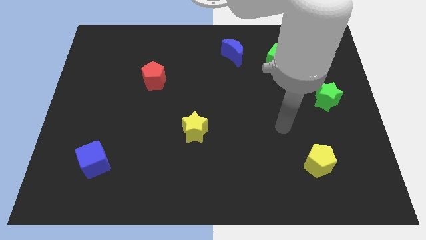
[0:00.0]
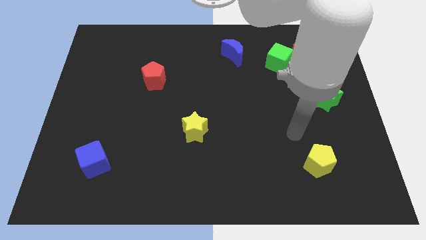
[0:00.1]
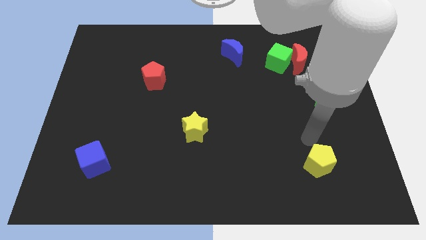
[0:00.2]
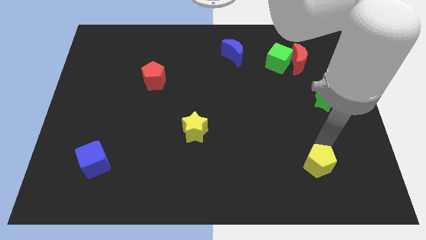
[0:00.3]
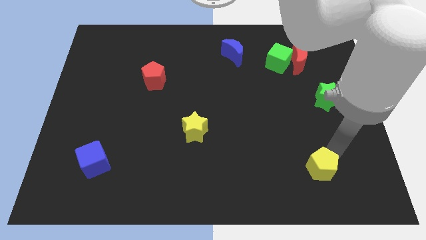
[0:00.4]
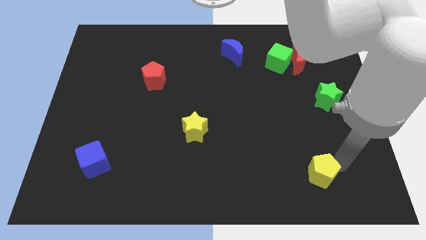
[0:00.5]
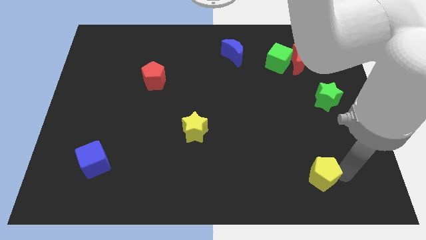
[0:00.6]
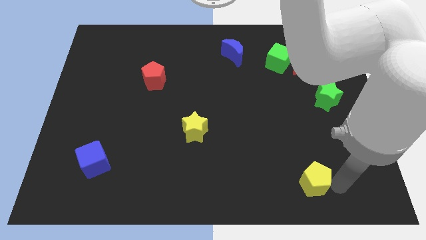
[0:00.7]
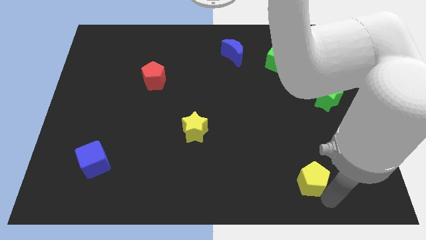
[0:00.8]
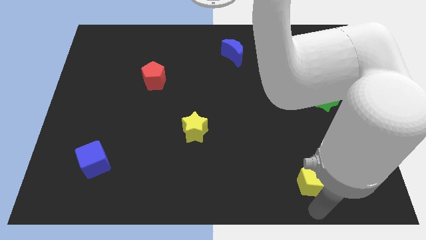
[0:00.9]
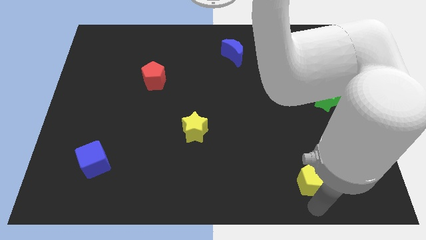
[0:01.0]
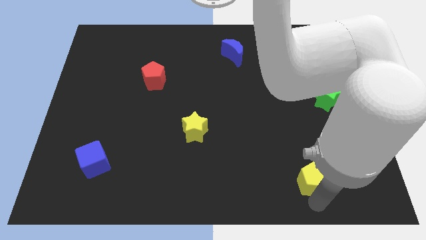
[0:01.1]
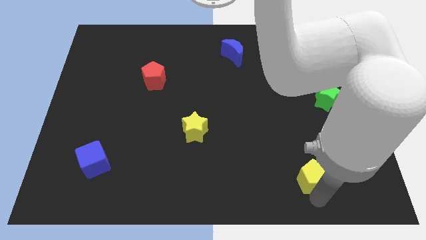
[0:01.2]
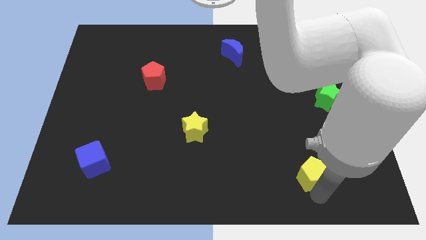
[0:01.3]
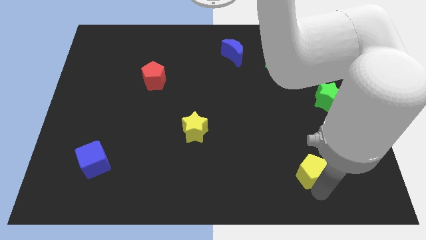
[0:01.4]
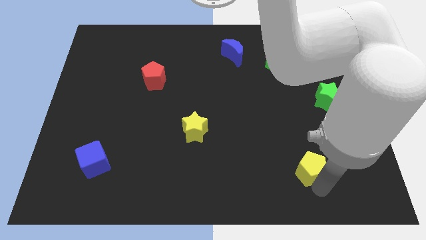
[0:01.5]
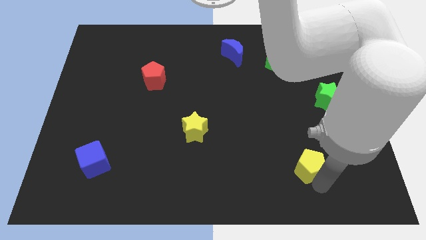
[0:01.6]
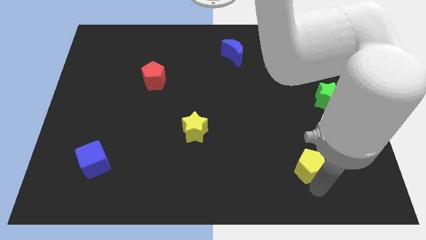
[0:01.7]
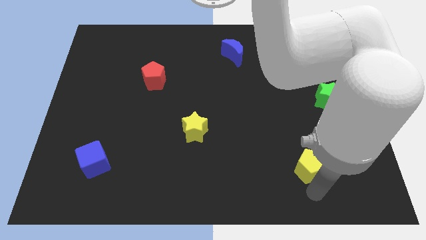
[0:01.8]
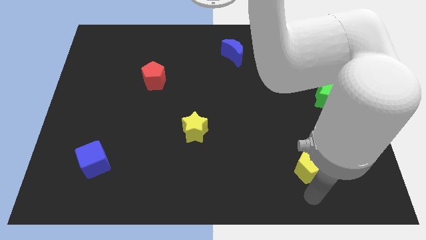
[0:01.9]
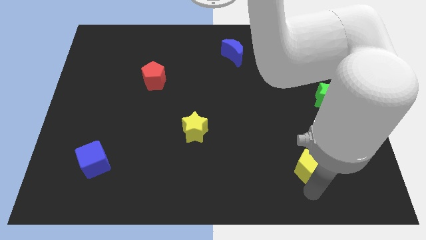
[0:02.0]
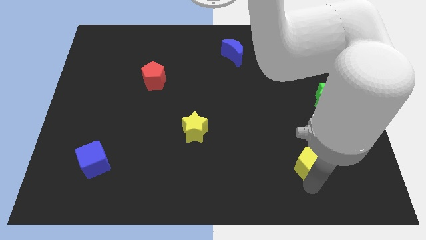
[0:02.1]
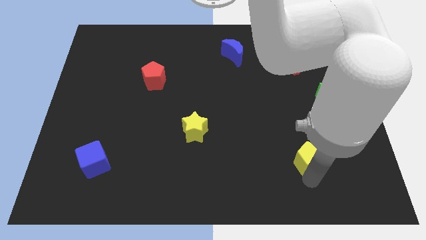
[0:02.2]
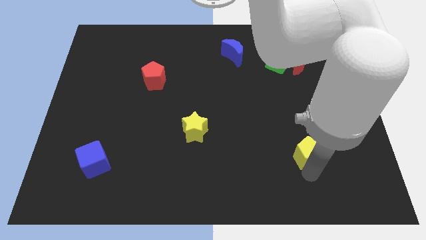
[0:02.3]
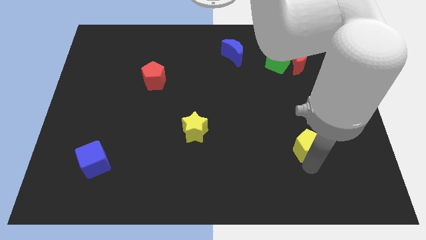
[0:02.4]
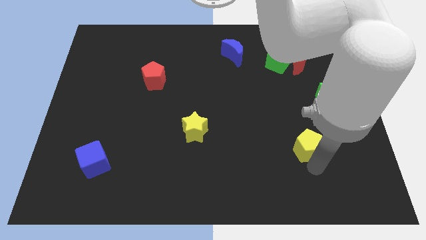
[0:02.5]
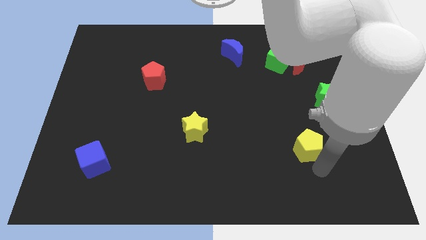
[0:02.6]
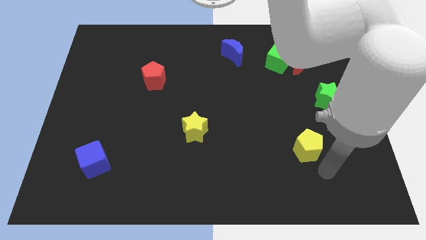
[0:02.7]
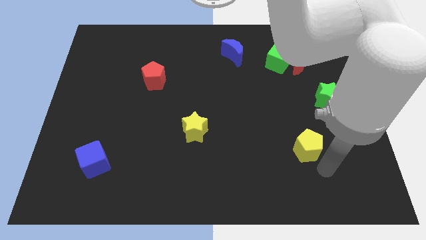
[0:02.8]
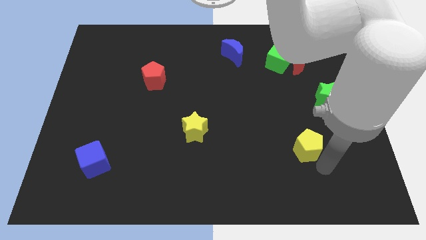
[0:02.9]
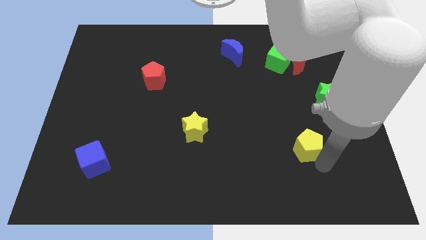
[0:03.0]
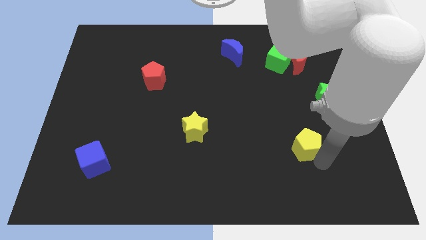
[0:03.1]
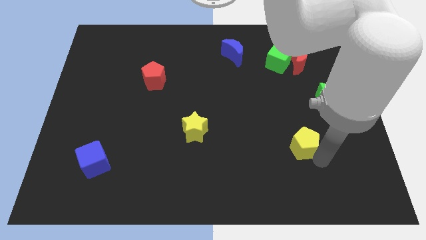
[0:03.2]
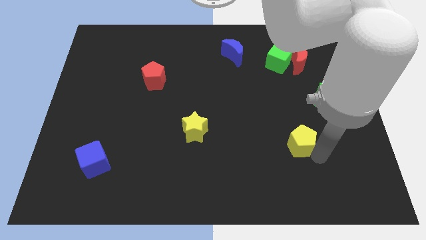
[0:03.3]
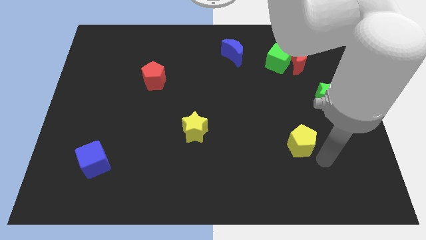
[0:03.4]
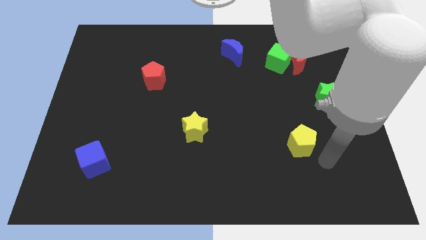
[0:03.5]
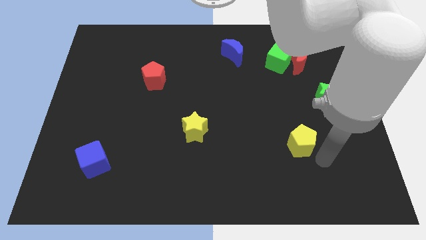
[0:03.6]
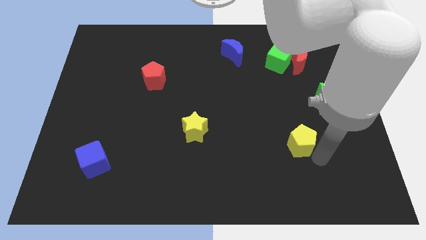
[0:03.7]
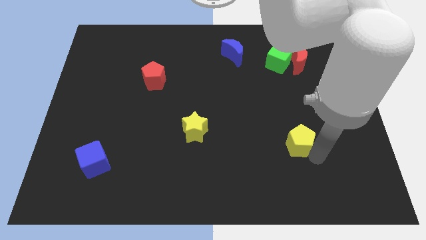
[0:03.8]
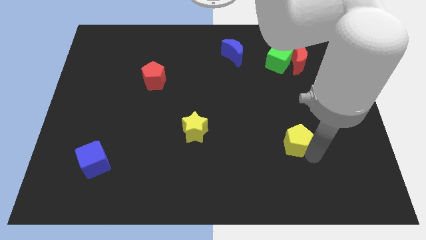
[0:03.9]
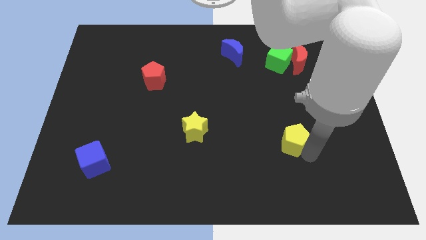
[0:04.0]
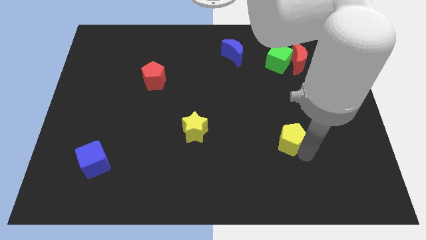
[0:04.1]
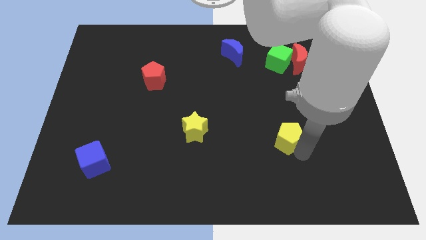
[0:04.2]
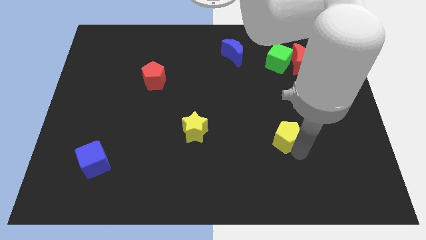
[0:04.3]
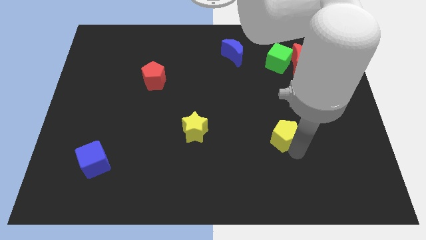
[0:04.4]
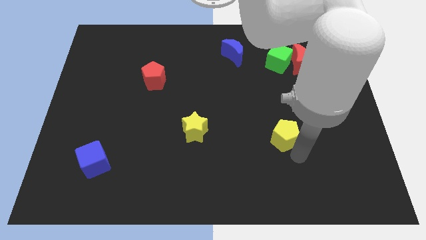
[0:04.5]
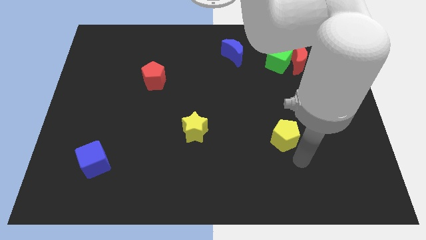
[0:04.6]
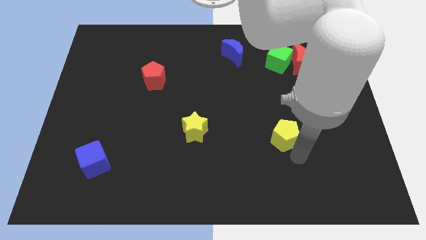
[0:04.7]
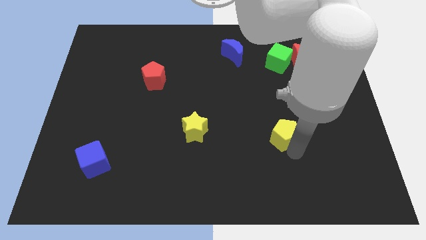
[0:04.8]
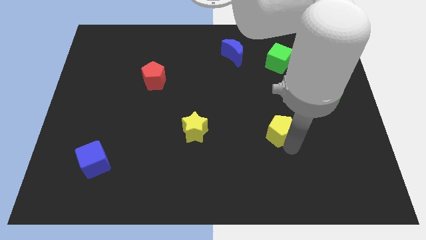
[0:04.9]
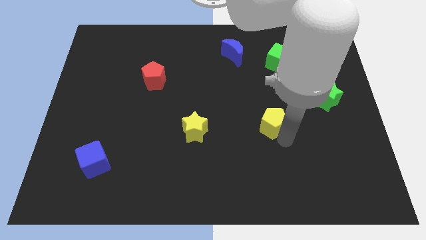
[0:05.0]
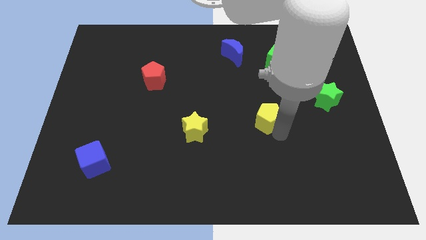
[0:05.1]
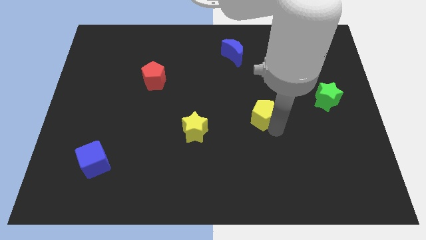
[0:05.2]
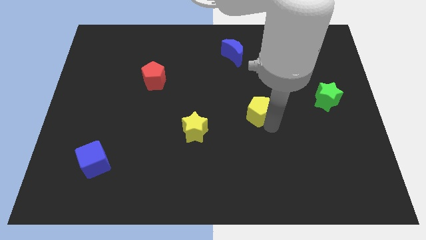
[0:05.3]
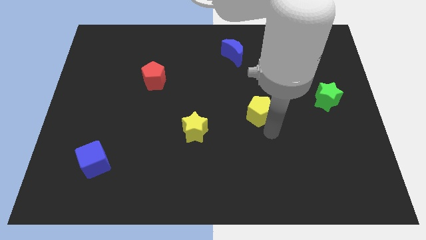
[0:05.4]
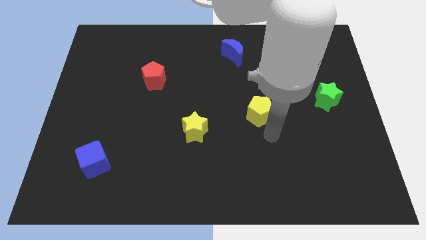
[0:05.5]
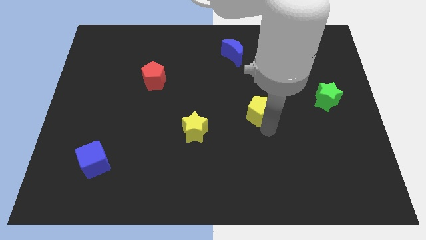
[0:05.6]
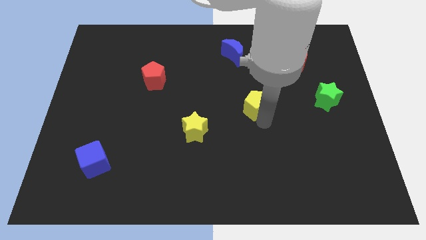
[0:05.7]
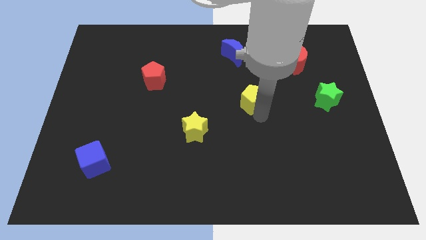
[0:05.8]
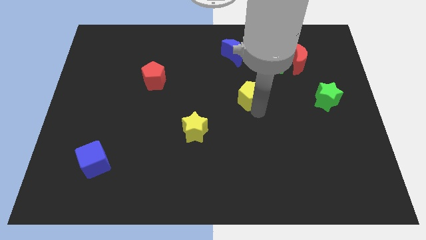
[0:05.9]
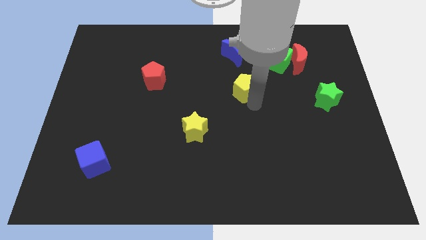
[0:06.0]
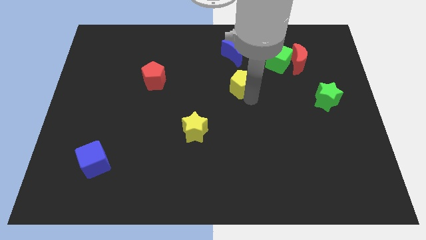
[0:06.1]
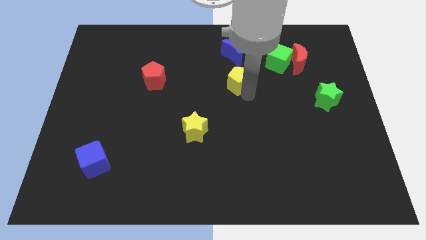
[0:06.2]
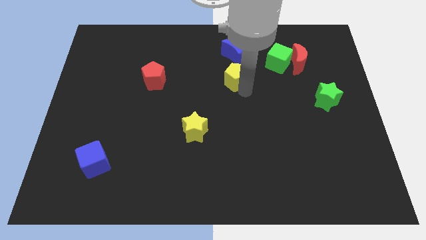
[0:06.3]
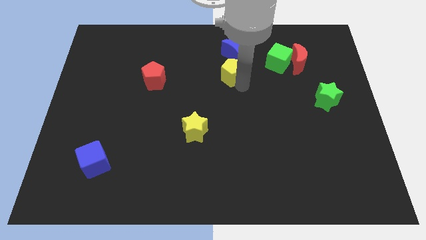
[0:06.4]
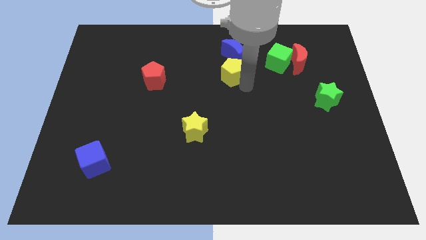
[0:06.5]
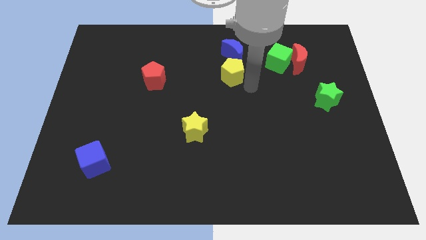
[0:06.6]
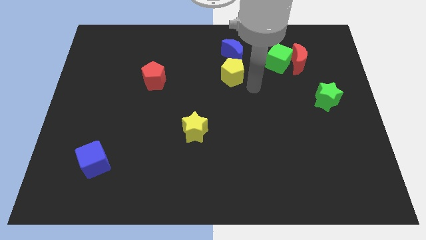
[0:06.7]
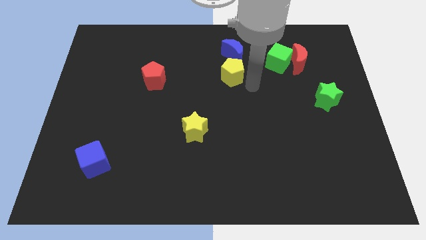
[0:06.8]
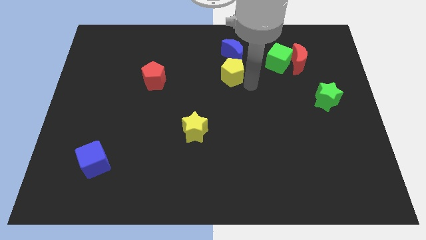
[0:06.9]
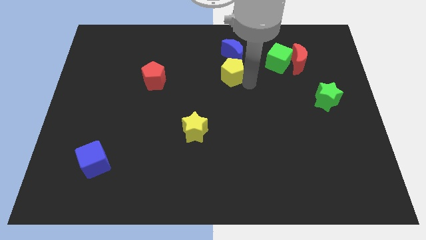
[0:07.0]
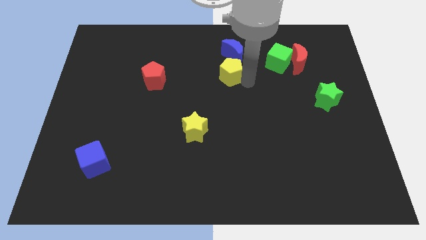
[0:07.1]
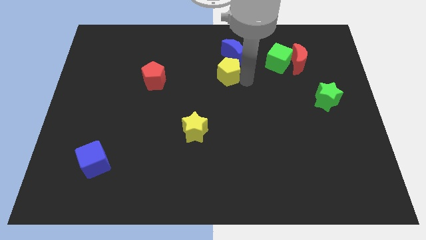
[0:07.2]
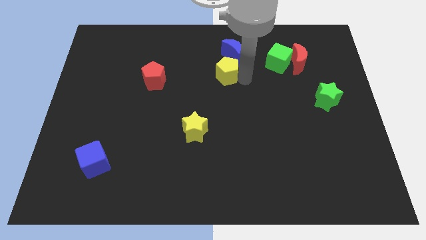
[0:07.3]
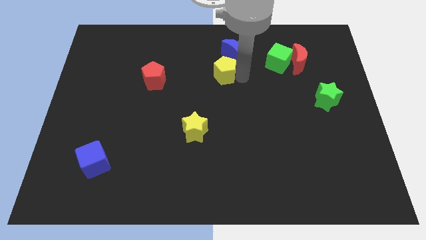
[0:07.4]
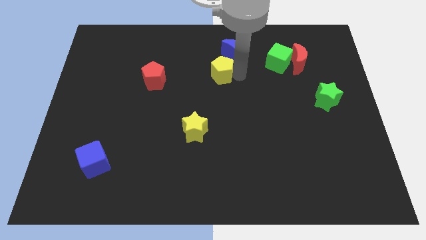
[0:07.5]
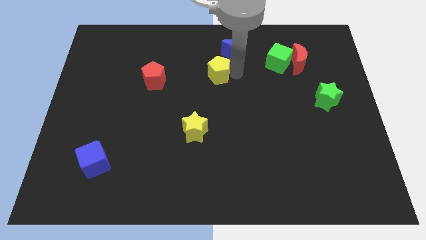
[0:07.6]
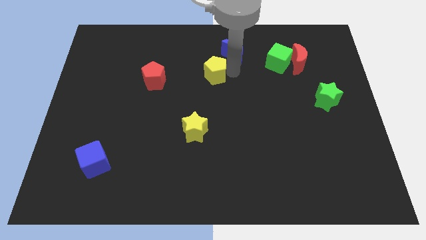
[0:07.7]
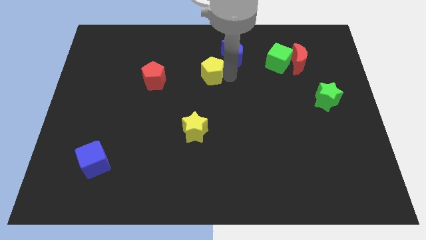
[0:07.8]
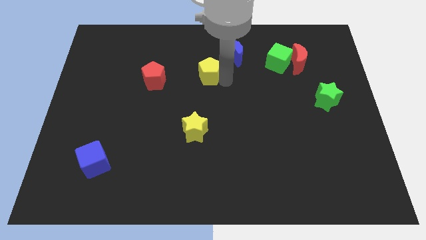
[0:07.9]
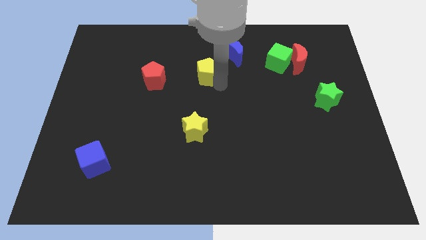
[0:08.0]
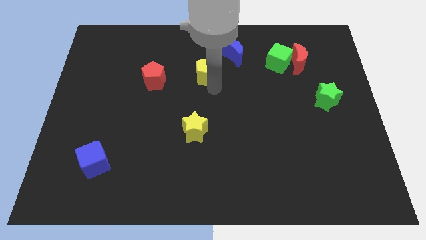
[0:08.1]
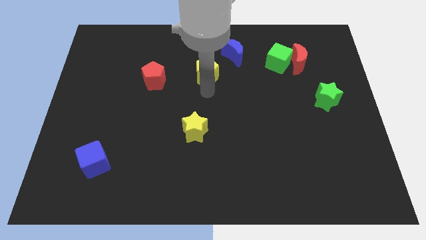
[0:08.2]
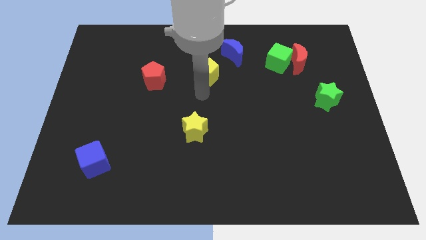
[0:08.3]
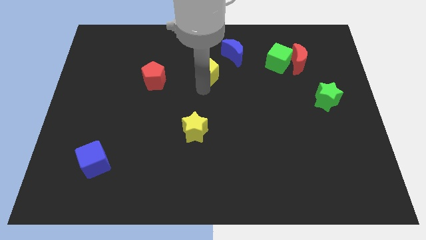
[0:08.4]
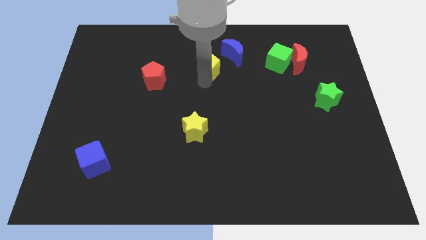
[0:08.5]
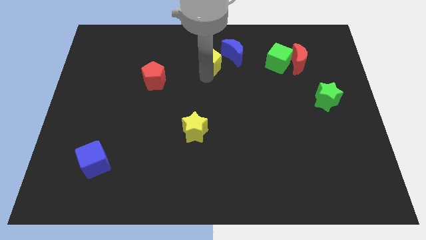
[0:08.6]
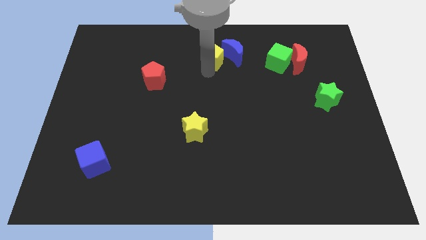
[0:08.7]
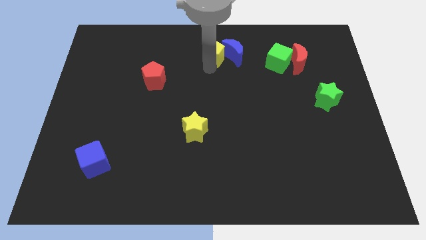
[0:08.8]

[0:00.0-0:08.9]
move the yellow pentagon to the towards your base
